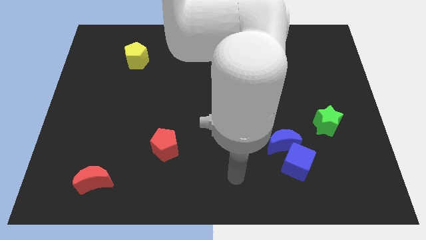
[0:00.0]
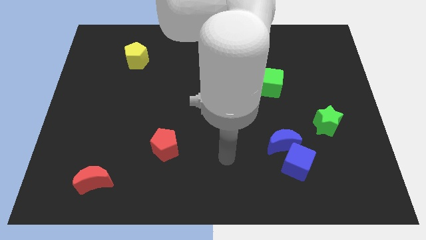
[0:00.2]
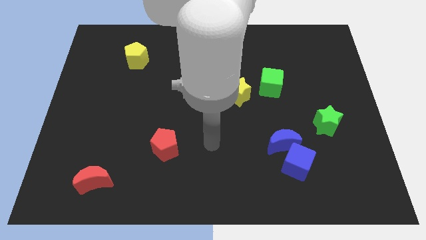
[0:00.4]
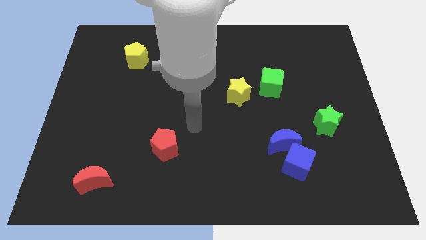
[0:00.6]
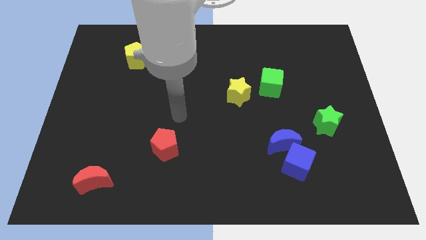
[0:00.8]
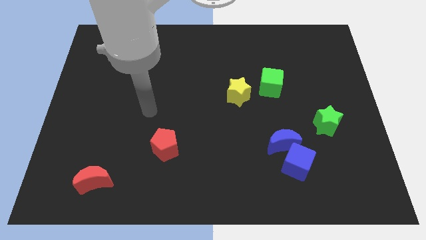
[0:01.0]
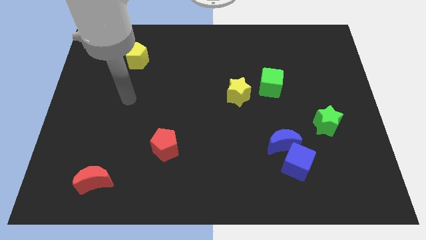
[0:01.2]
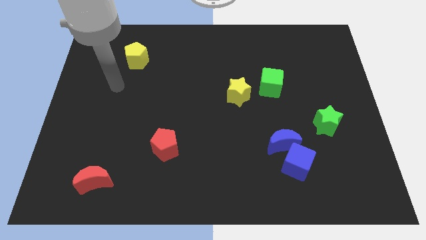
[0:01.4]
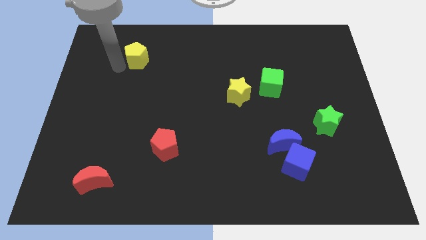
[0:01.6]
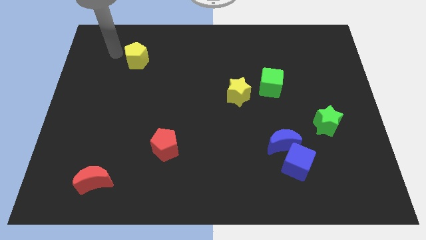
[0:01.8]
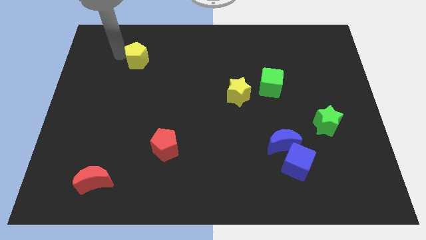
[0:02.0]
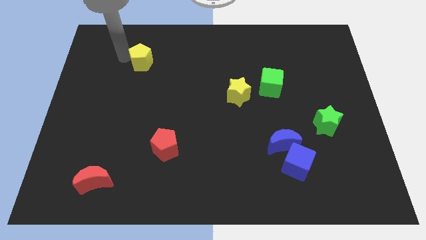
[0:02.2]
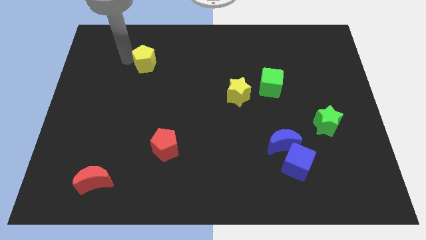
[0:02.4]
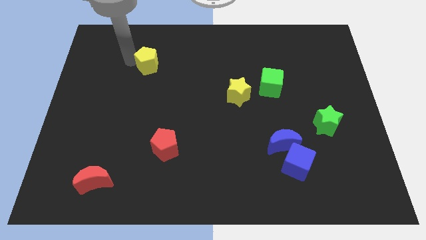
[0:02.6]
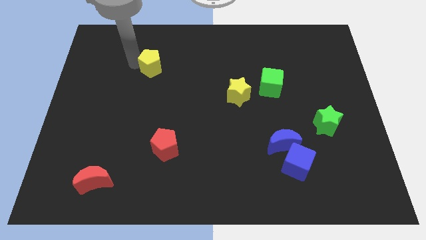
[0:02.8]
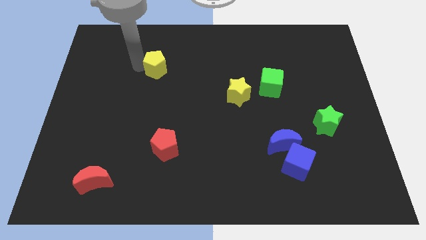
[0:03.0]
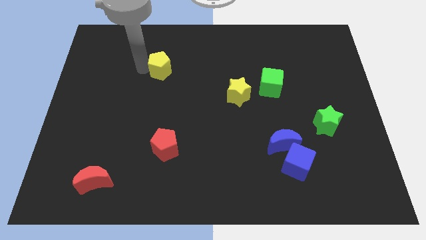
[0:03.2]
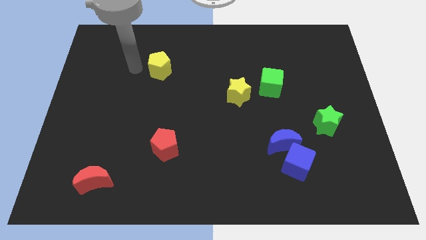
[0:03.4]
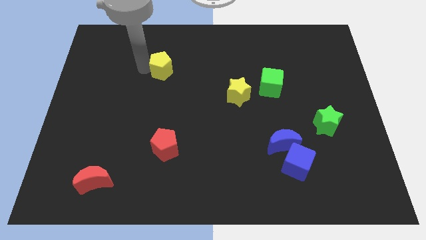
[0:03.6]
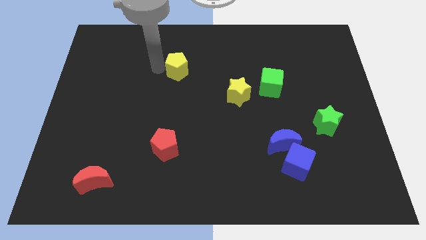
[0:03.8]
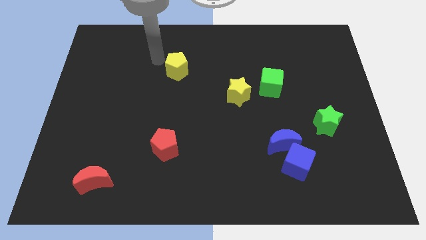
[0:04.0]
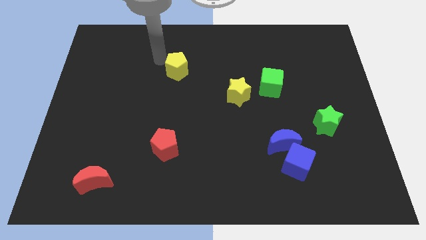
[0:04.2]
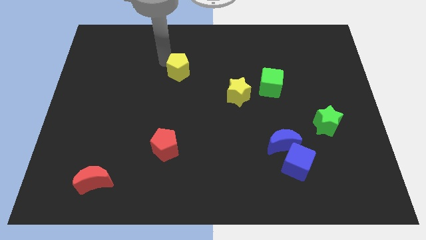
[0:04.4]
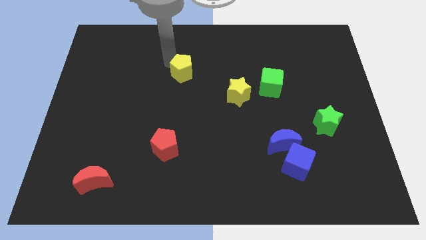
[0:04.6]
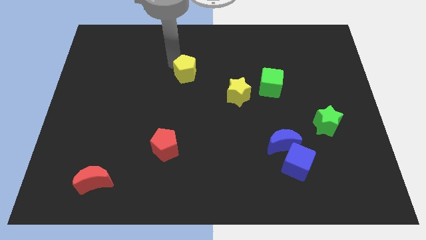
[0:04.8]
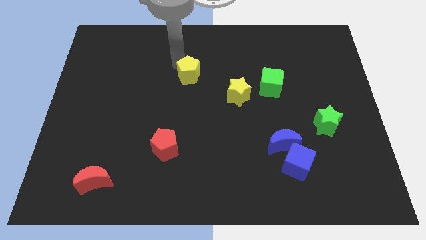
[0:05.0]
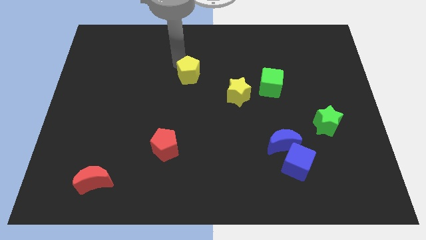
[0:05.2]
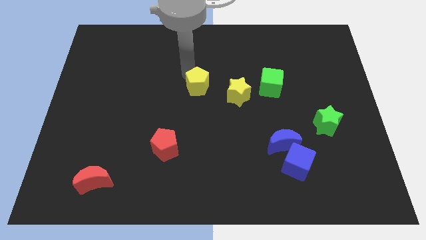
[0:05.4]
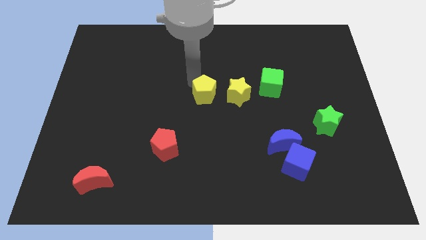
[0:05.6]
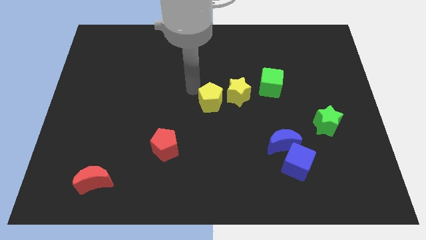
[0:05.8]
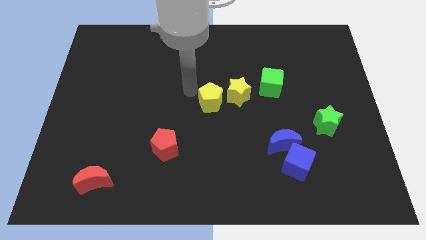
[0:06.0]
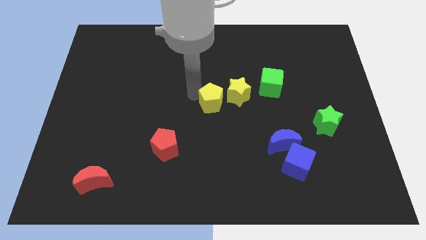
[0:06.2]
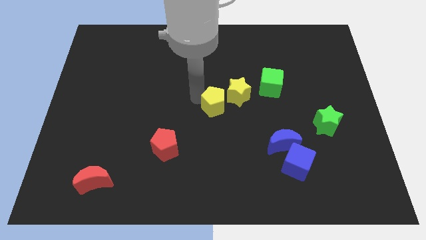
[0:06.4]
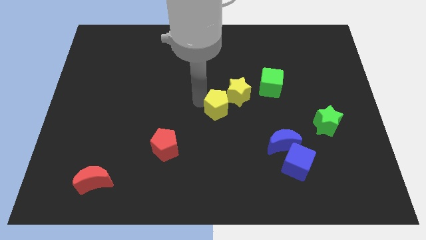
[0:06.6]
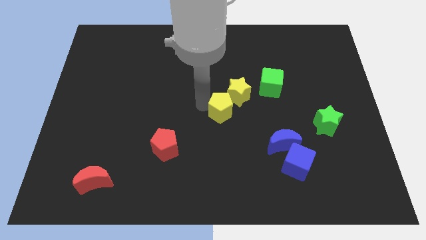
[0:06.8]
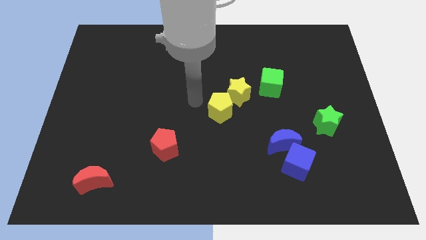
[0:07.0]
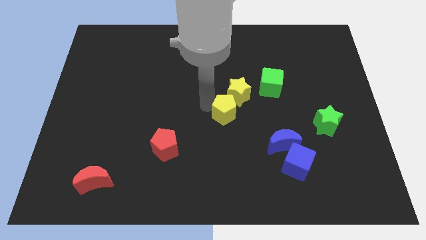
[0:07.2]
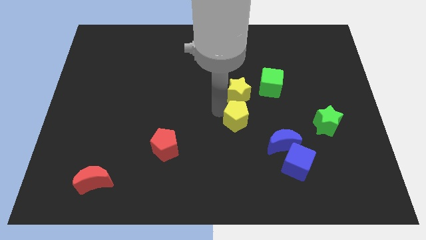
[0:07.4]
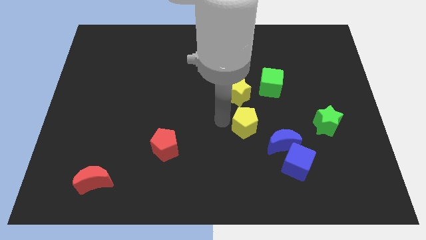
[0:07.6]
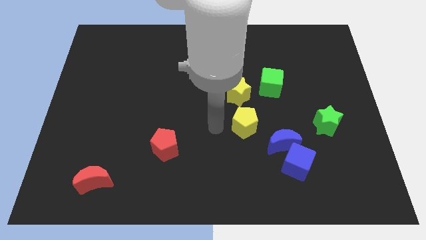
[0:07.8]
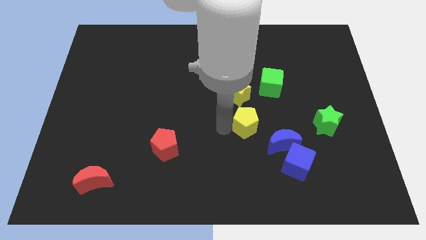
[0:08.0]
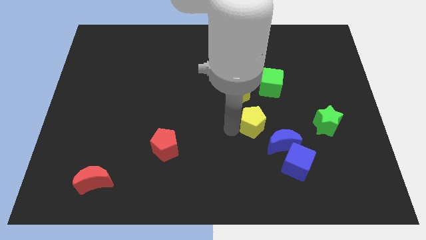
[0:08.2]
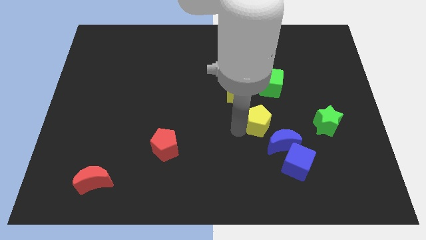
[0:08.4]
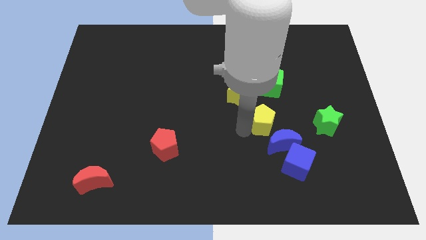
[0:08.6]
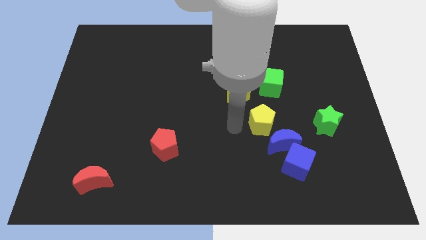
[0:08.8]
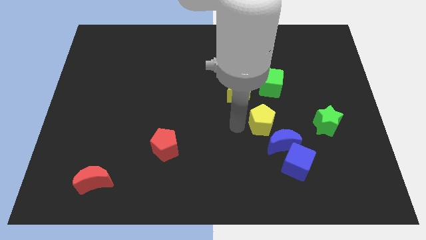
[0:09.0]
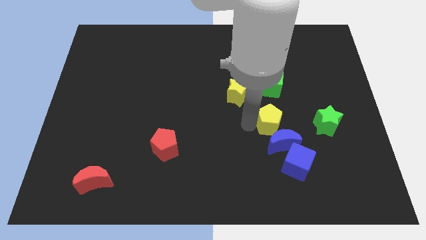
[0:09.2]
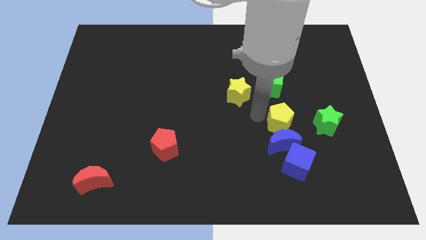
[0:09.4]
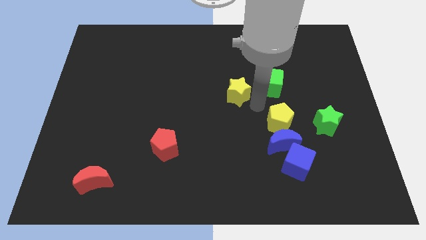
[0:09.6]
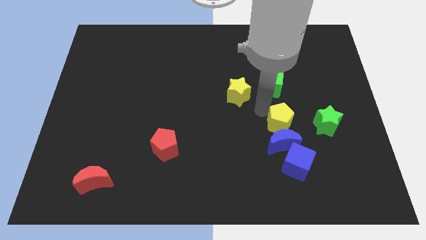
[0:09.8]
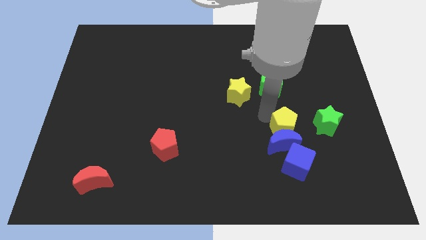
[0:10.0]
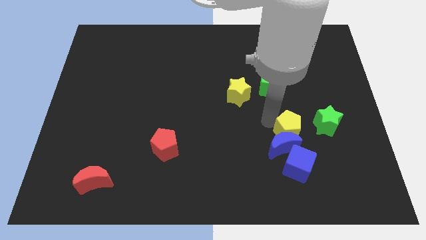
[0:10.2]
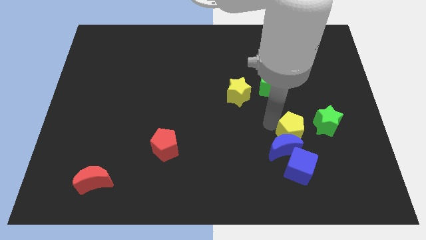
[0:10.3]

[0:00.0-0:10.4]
move the yellow pentagon to the bottom left side of the green star

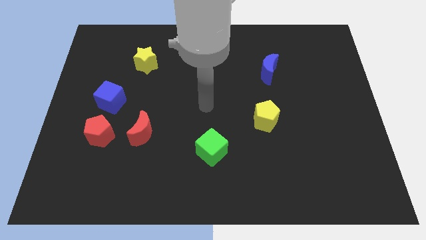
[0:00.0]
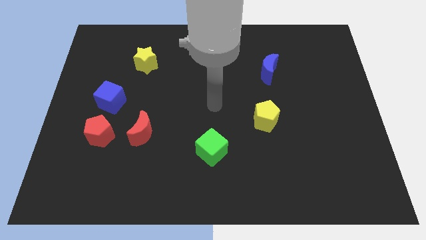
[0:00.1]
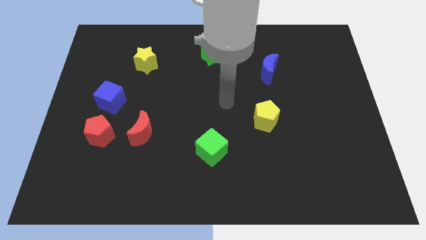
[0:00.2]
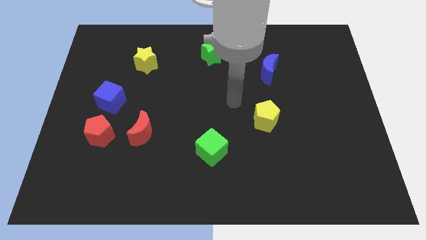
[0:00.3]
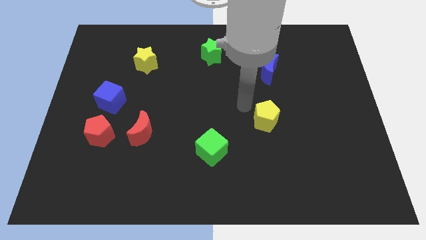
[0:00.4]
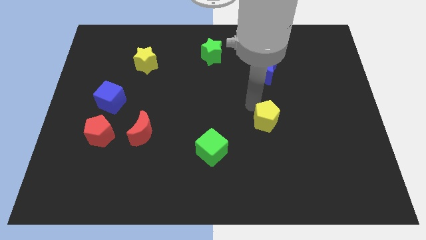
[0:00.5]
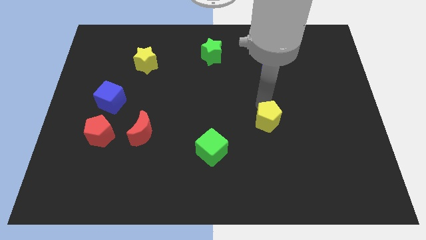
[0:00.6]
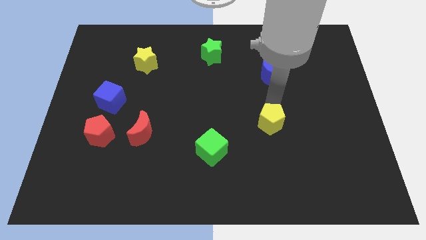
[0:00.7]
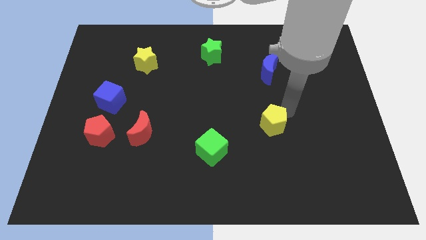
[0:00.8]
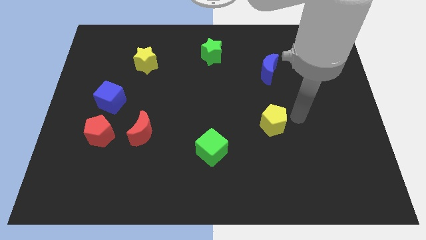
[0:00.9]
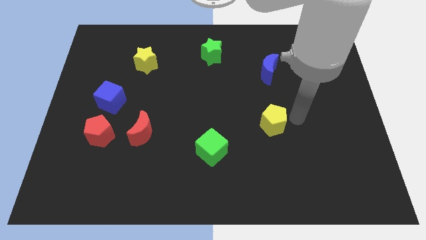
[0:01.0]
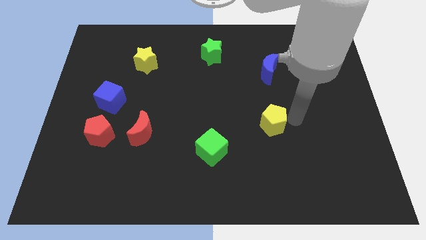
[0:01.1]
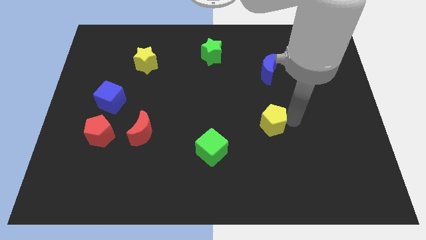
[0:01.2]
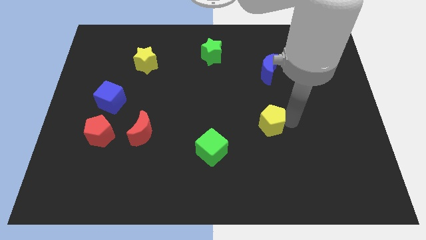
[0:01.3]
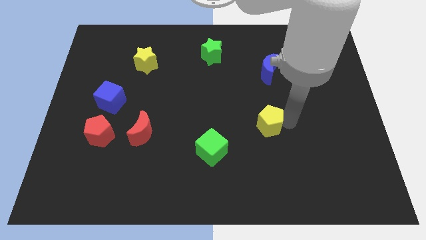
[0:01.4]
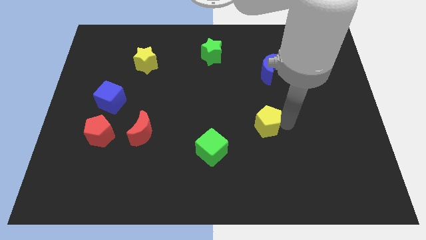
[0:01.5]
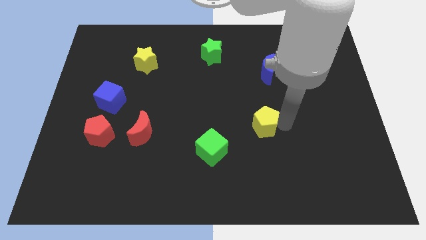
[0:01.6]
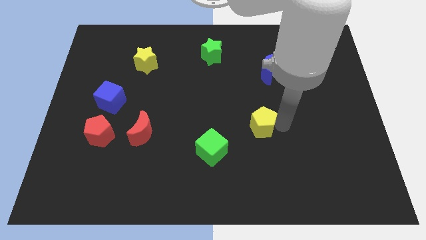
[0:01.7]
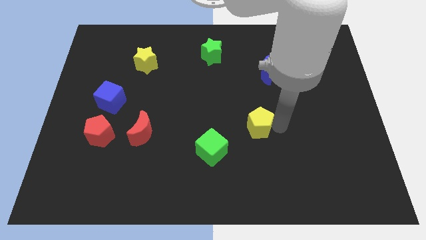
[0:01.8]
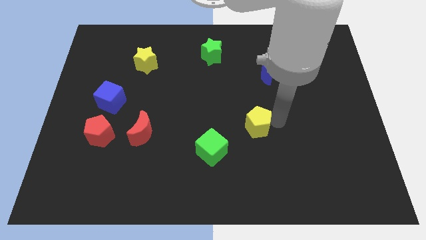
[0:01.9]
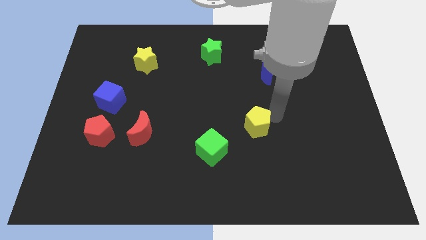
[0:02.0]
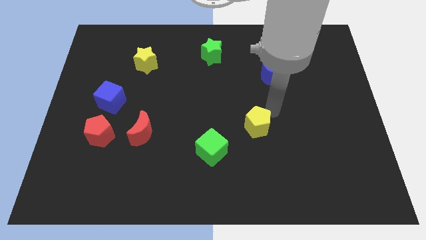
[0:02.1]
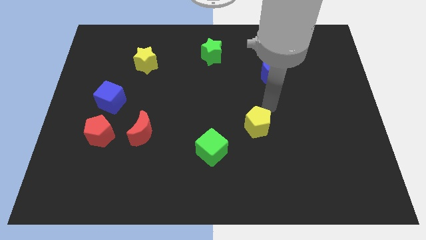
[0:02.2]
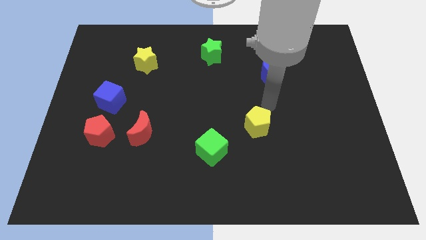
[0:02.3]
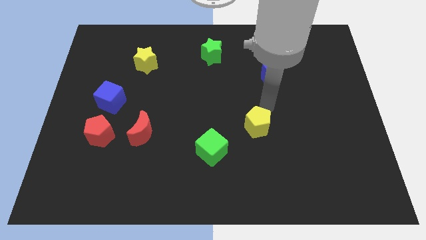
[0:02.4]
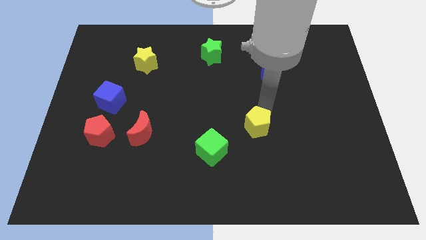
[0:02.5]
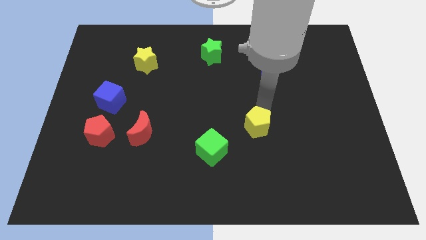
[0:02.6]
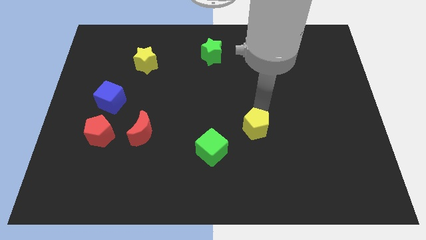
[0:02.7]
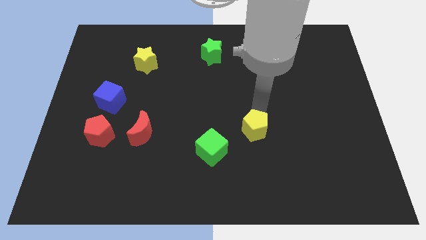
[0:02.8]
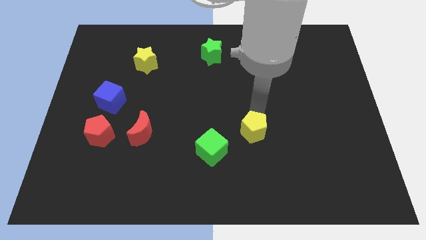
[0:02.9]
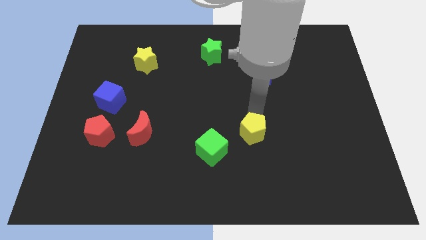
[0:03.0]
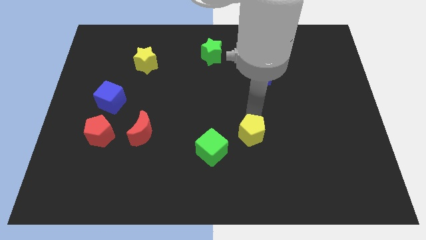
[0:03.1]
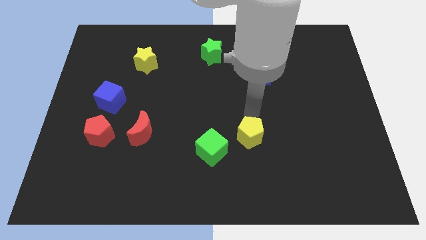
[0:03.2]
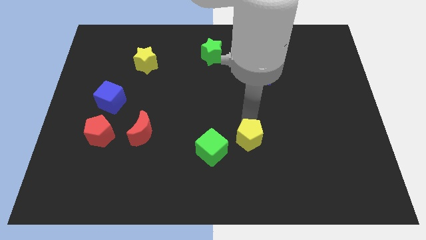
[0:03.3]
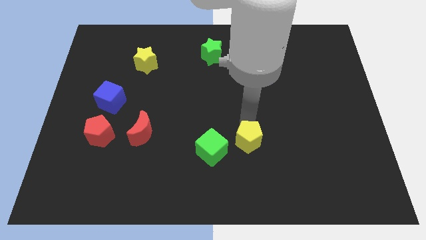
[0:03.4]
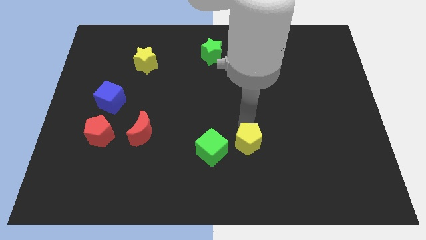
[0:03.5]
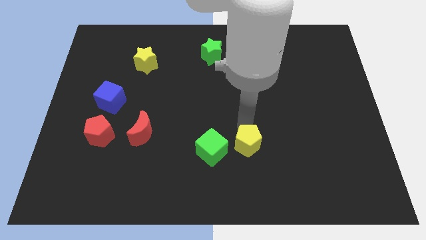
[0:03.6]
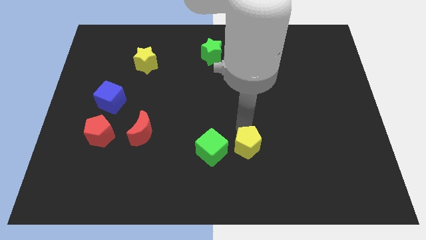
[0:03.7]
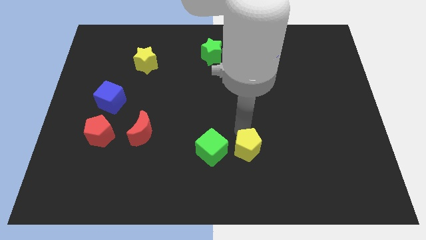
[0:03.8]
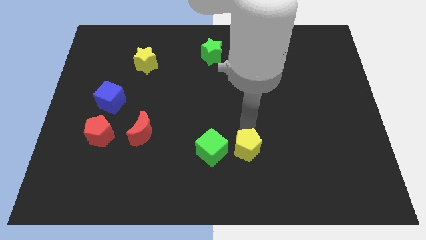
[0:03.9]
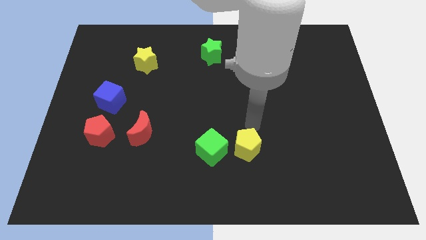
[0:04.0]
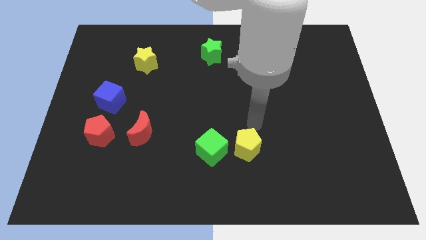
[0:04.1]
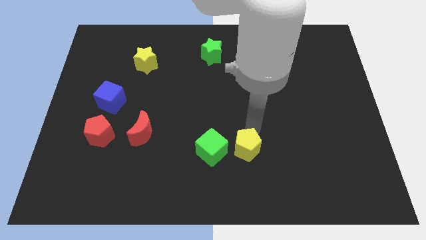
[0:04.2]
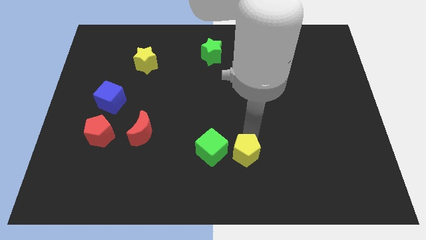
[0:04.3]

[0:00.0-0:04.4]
slide the yellow pentagon to the bottom right side of the green cube
